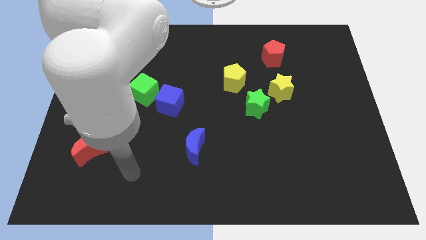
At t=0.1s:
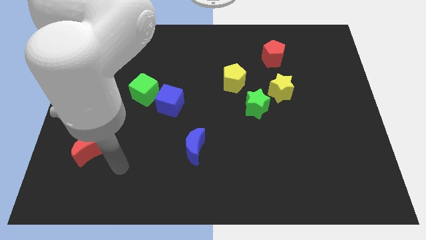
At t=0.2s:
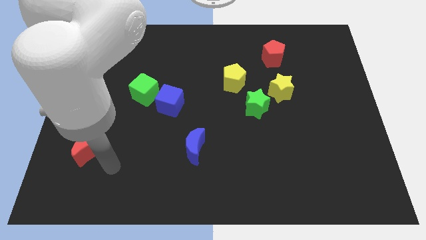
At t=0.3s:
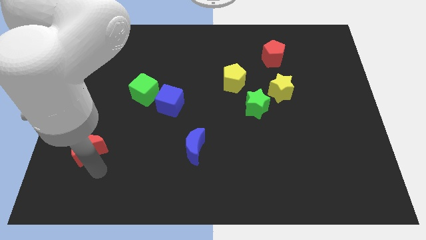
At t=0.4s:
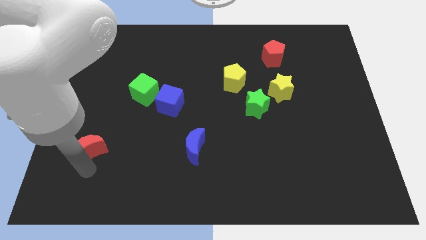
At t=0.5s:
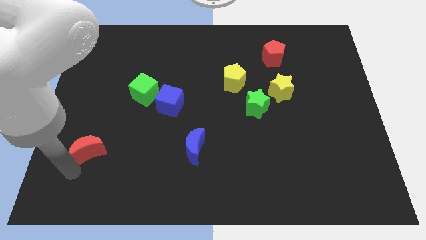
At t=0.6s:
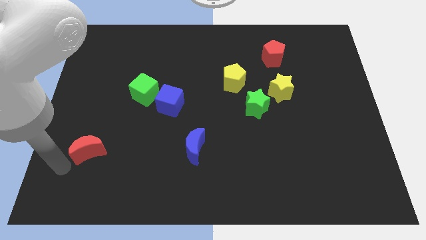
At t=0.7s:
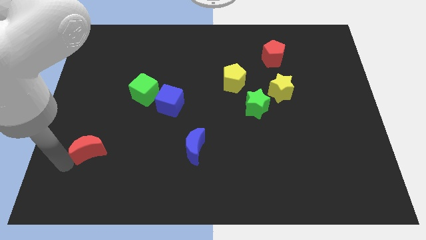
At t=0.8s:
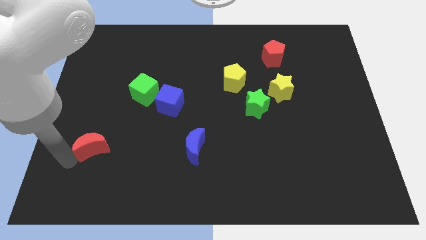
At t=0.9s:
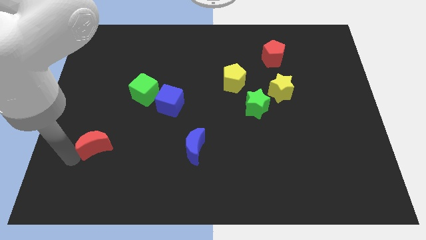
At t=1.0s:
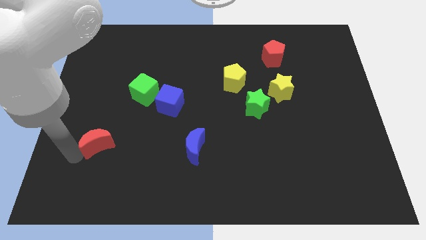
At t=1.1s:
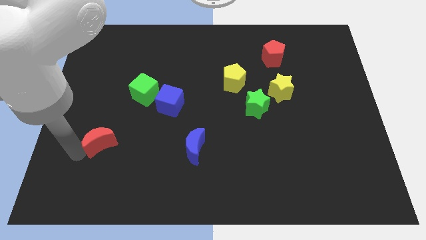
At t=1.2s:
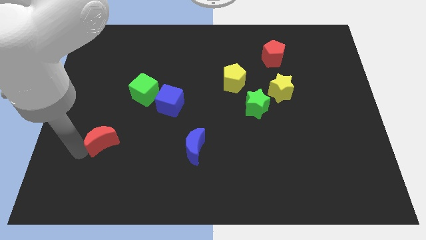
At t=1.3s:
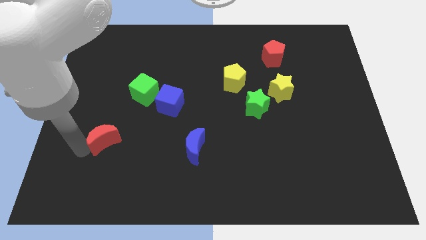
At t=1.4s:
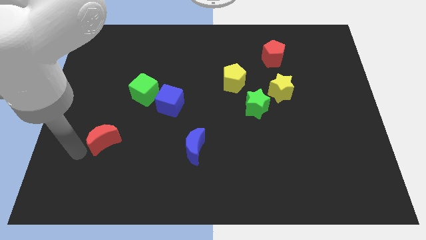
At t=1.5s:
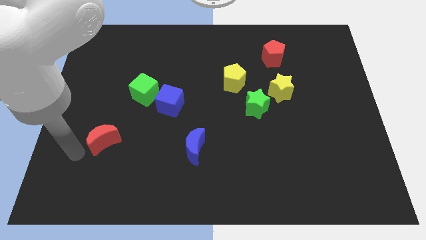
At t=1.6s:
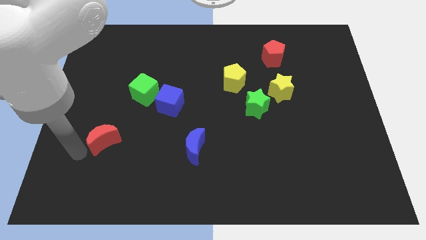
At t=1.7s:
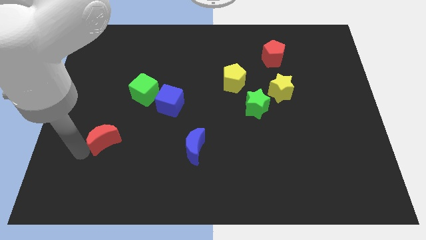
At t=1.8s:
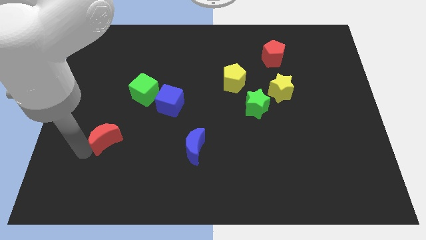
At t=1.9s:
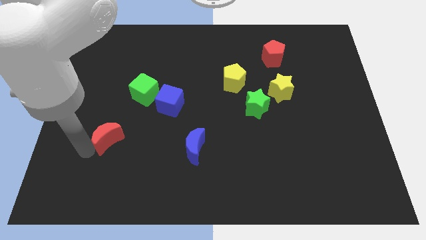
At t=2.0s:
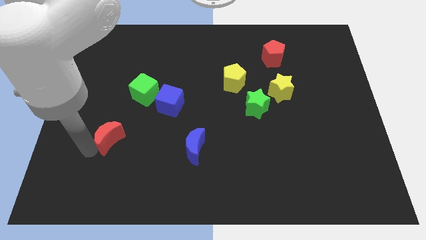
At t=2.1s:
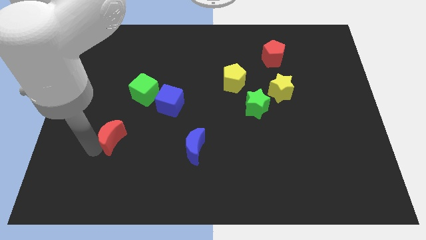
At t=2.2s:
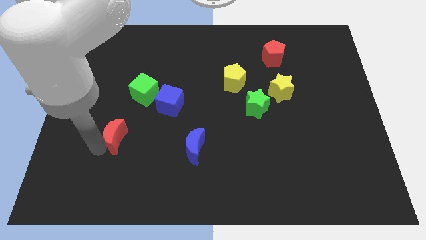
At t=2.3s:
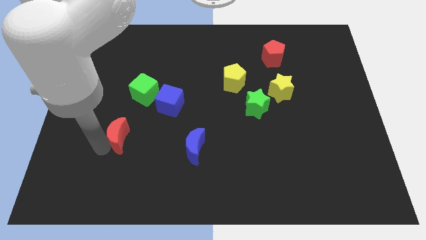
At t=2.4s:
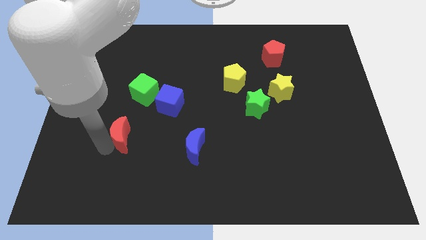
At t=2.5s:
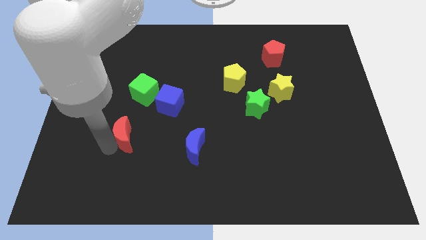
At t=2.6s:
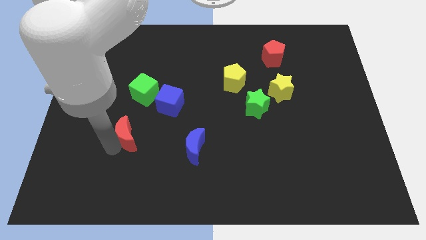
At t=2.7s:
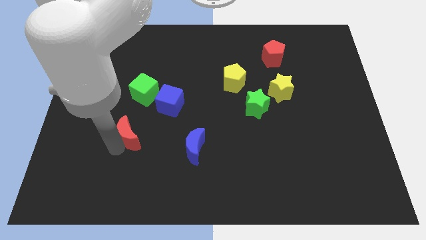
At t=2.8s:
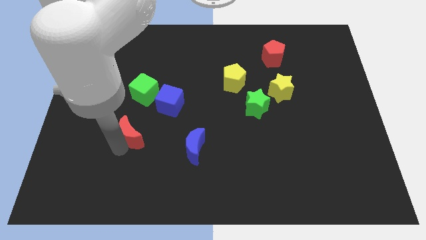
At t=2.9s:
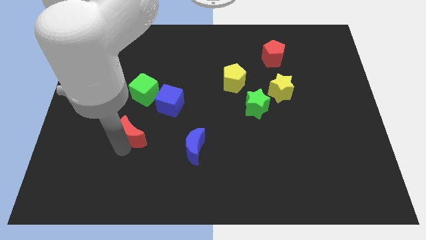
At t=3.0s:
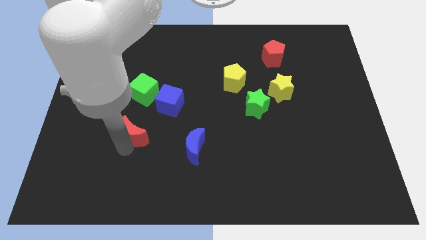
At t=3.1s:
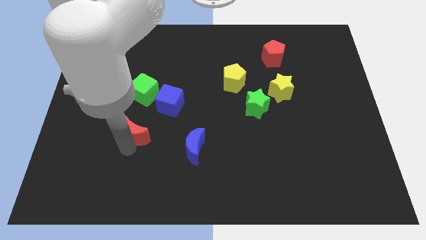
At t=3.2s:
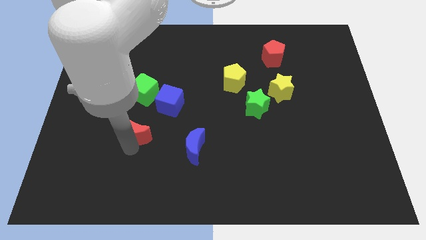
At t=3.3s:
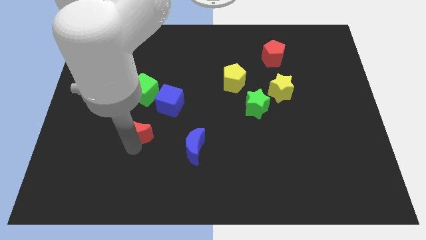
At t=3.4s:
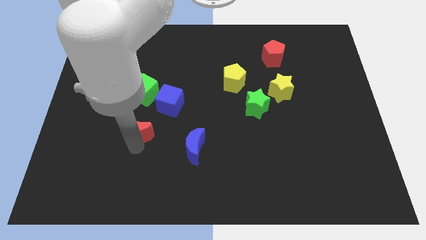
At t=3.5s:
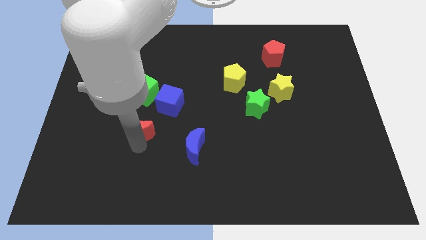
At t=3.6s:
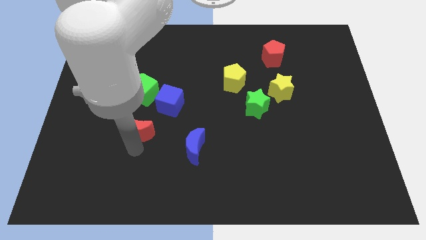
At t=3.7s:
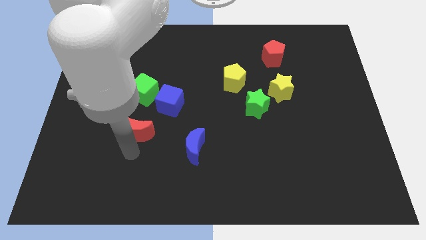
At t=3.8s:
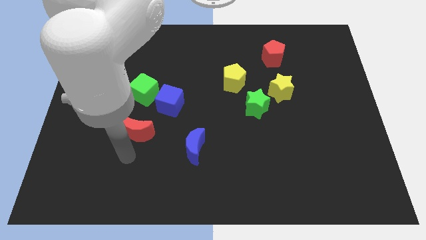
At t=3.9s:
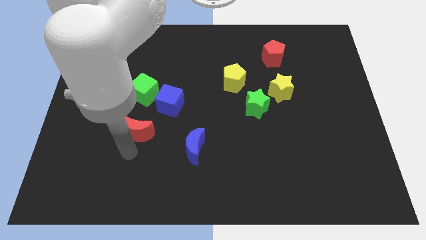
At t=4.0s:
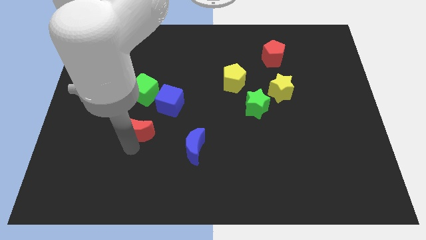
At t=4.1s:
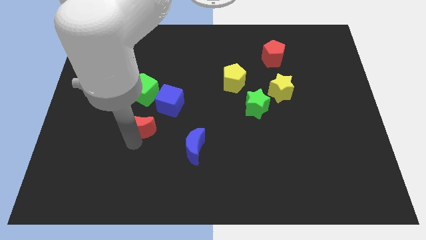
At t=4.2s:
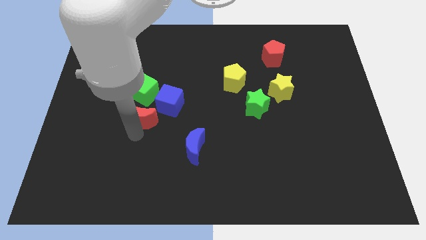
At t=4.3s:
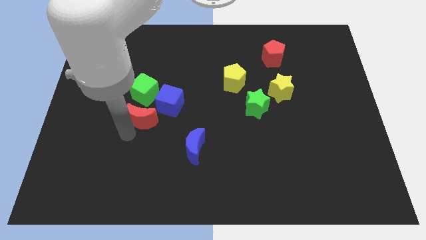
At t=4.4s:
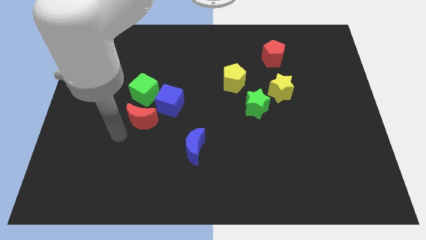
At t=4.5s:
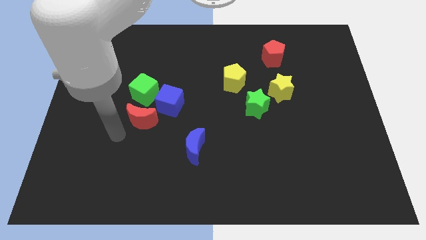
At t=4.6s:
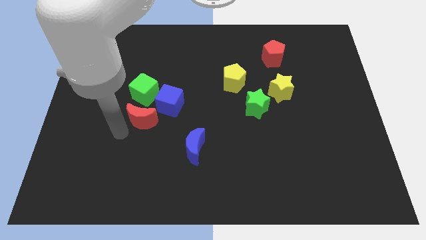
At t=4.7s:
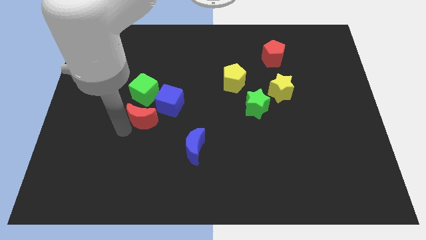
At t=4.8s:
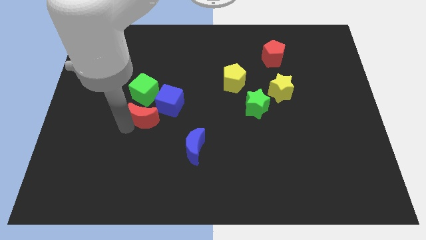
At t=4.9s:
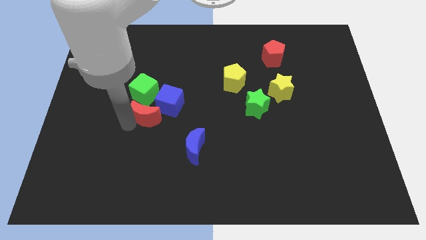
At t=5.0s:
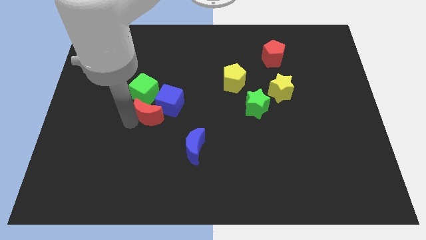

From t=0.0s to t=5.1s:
push the red moon next to the blue cube

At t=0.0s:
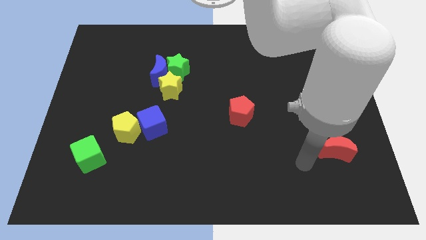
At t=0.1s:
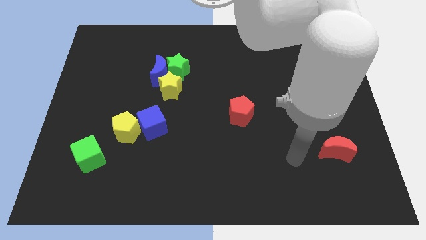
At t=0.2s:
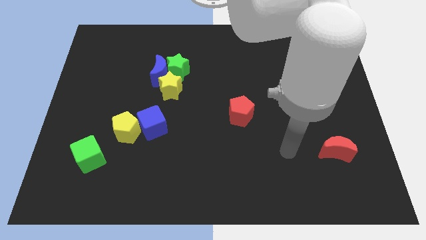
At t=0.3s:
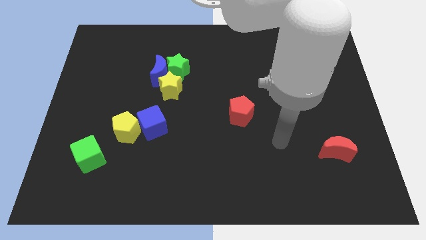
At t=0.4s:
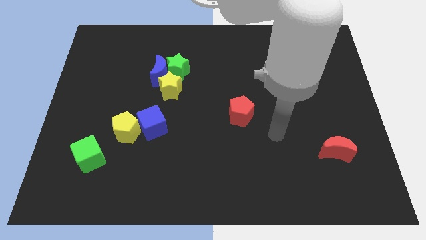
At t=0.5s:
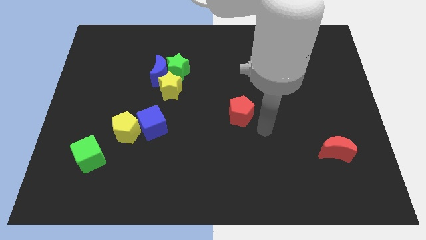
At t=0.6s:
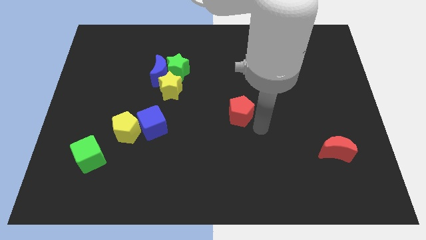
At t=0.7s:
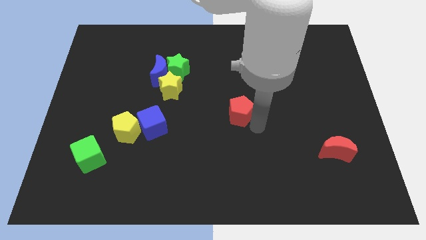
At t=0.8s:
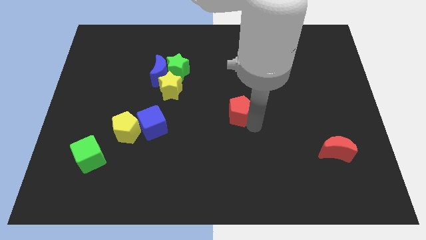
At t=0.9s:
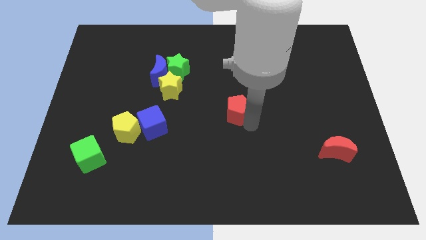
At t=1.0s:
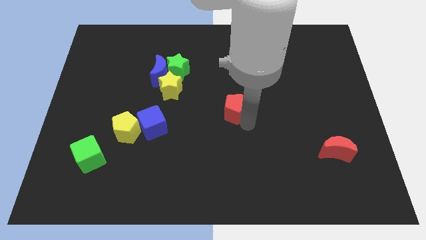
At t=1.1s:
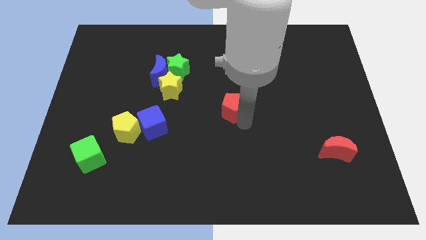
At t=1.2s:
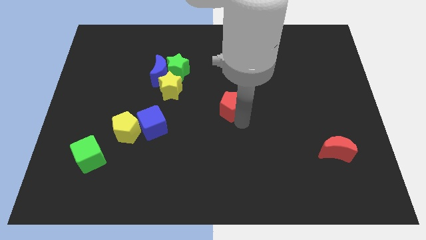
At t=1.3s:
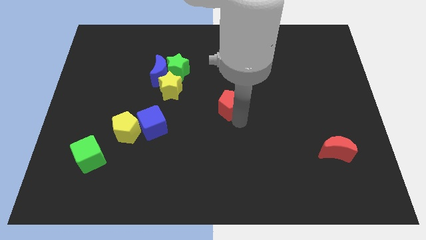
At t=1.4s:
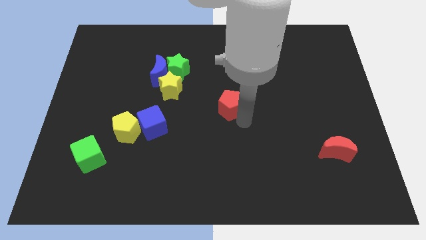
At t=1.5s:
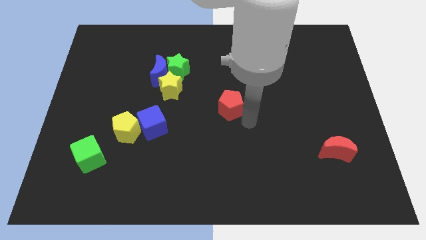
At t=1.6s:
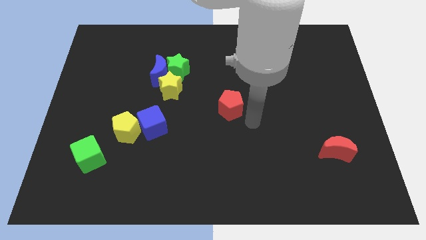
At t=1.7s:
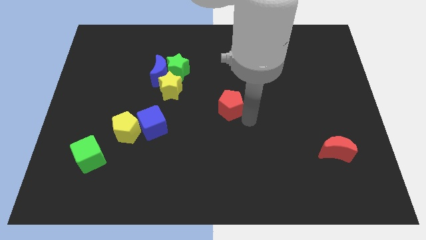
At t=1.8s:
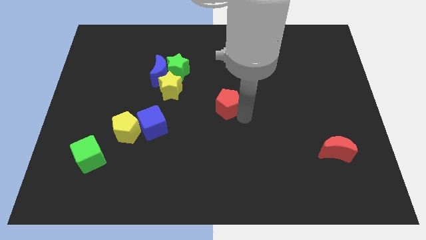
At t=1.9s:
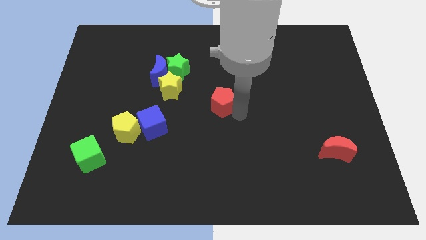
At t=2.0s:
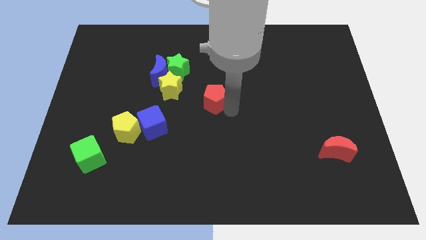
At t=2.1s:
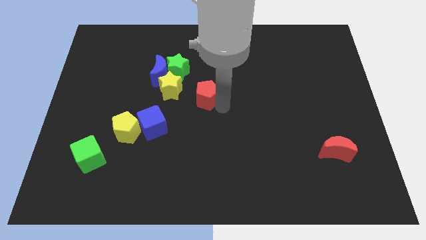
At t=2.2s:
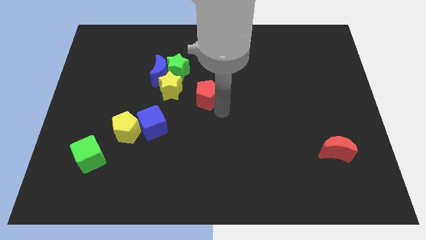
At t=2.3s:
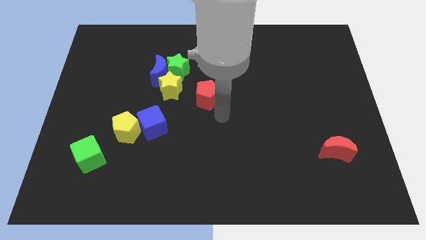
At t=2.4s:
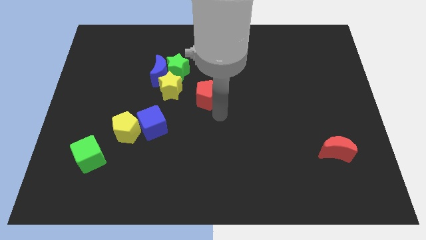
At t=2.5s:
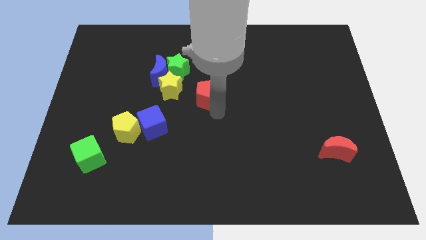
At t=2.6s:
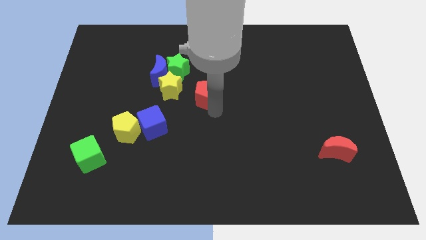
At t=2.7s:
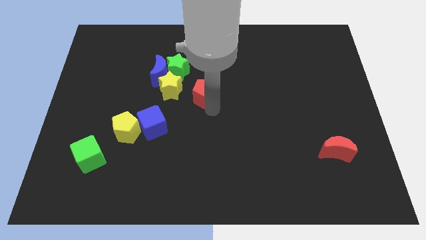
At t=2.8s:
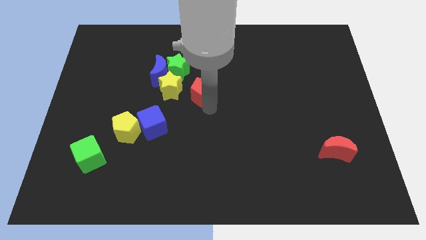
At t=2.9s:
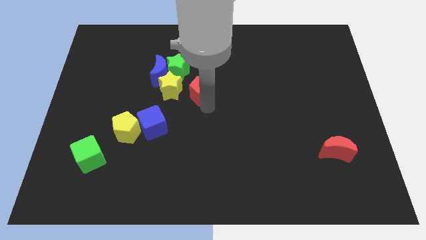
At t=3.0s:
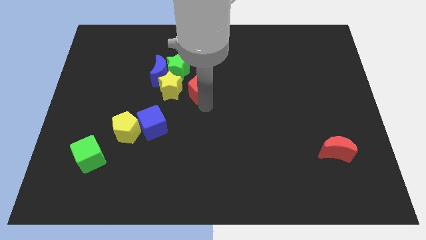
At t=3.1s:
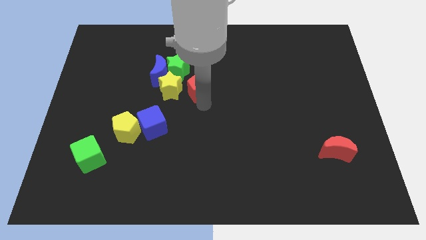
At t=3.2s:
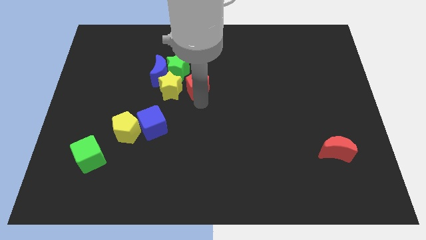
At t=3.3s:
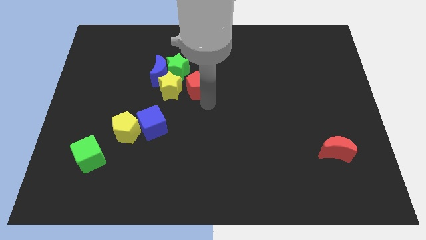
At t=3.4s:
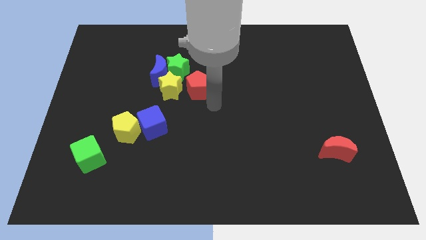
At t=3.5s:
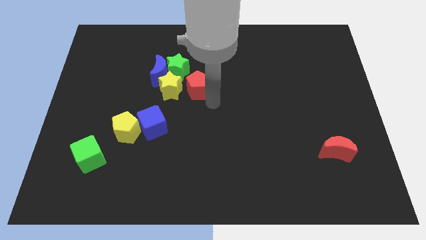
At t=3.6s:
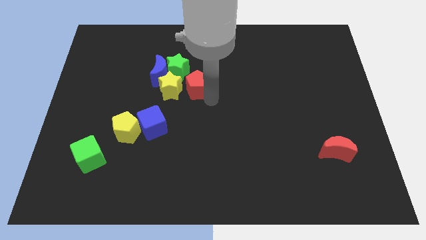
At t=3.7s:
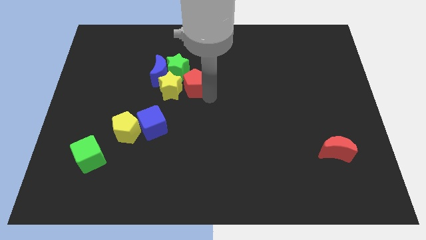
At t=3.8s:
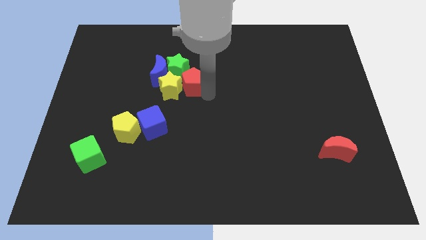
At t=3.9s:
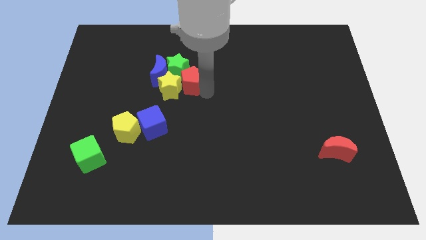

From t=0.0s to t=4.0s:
put the red pentagon next to the green star
